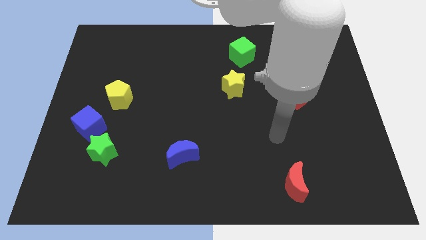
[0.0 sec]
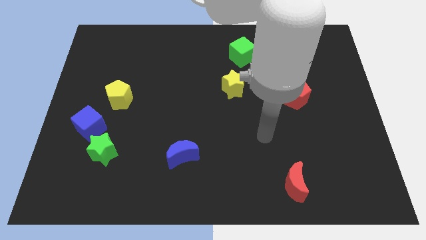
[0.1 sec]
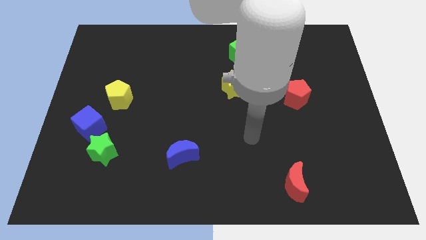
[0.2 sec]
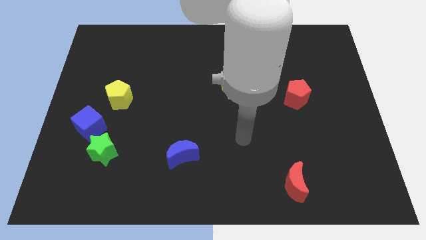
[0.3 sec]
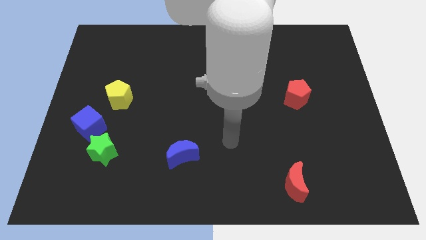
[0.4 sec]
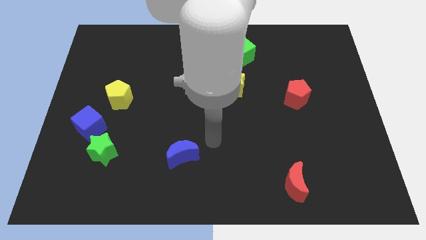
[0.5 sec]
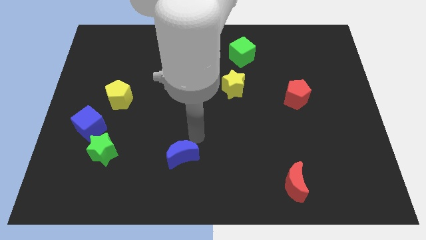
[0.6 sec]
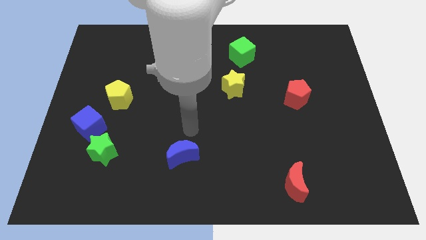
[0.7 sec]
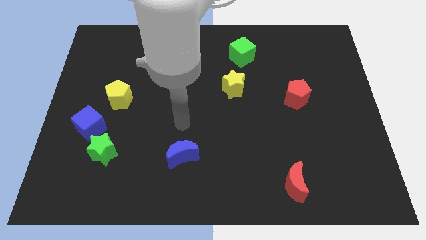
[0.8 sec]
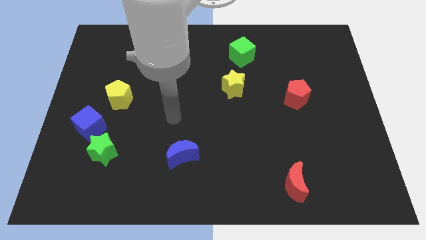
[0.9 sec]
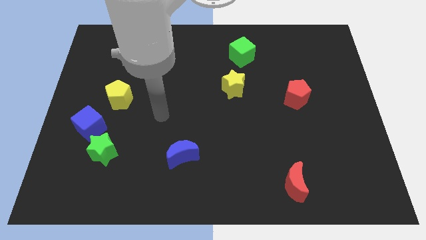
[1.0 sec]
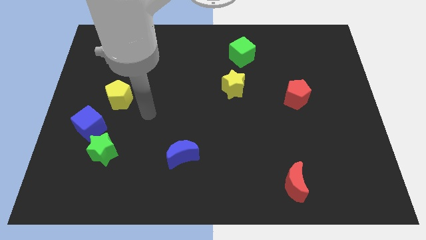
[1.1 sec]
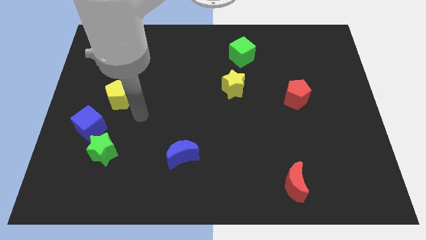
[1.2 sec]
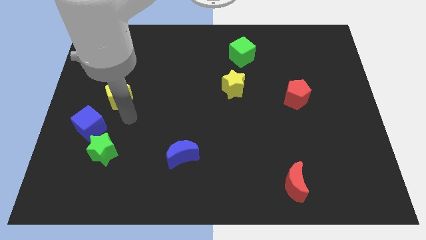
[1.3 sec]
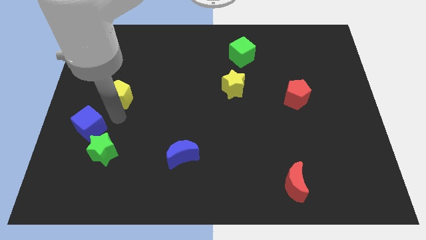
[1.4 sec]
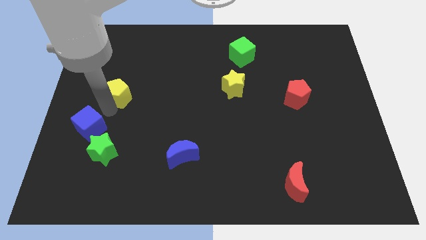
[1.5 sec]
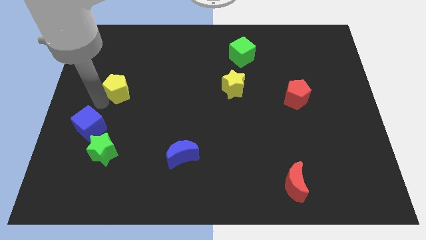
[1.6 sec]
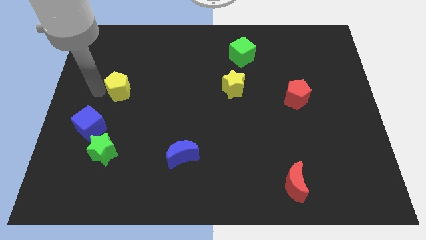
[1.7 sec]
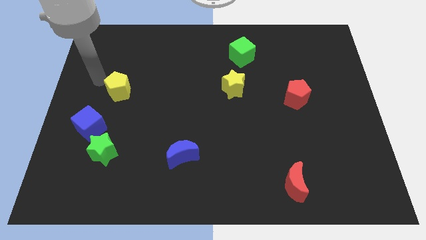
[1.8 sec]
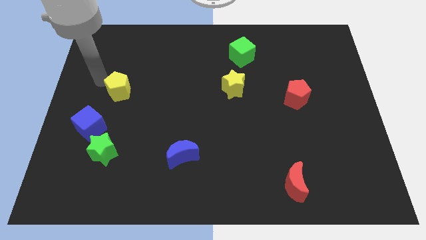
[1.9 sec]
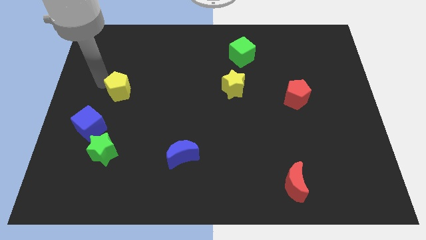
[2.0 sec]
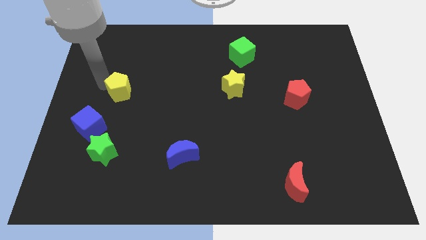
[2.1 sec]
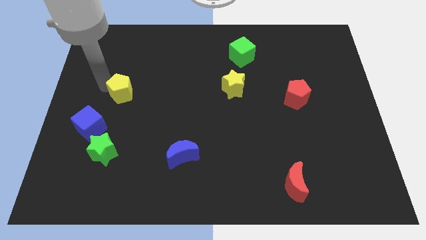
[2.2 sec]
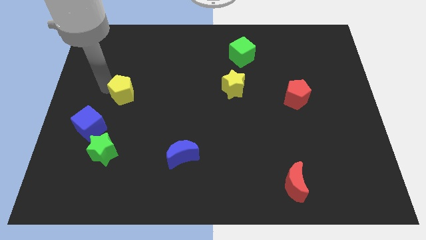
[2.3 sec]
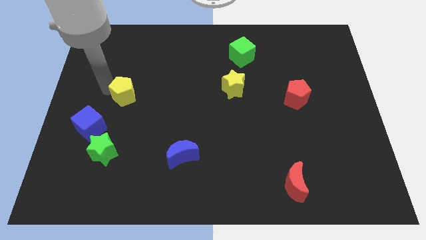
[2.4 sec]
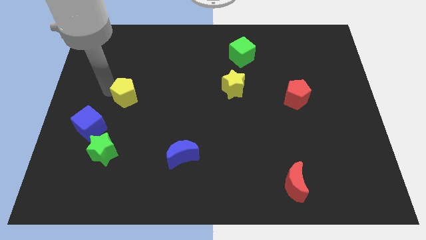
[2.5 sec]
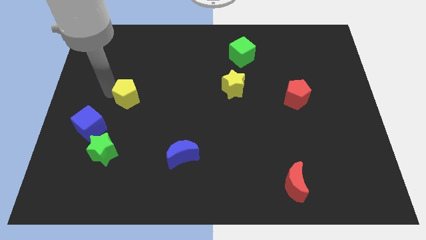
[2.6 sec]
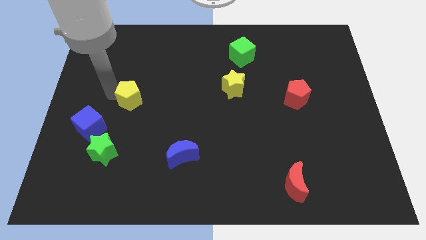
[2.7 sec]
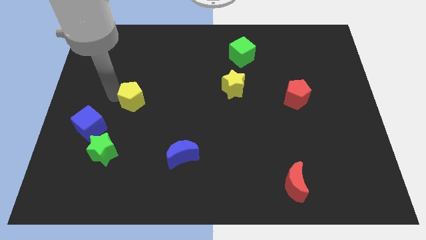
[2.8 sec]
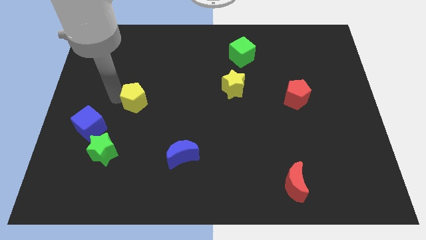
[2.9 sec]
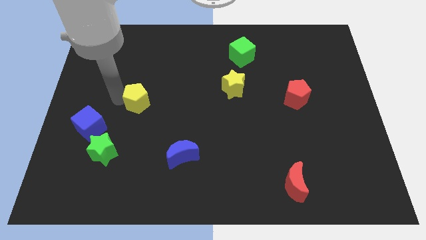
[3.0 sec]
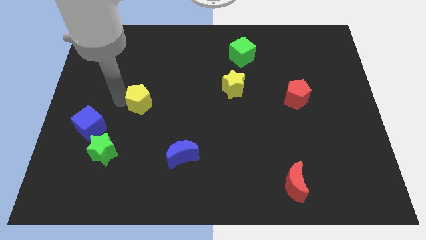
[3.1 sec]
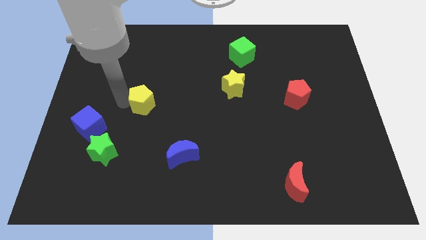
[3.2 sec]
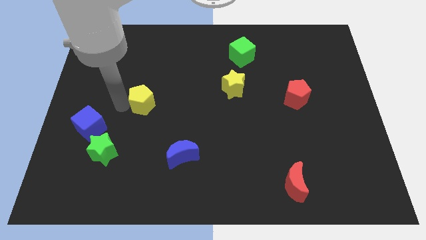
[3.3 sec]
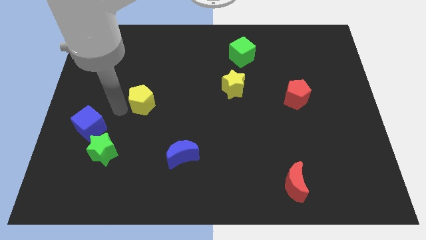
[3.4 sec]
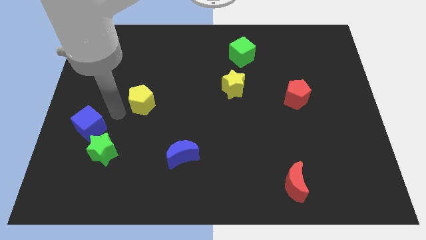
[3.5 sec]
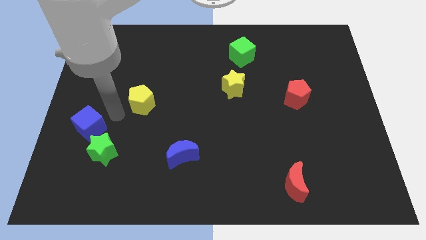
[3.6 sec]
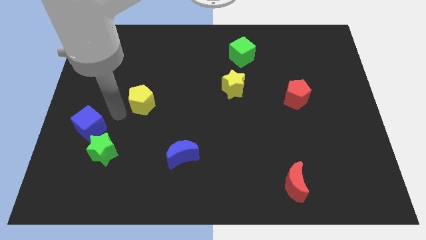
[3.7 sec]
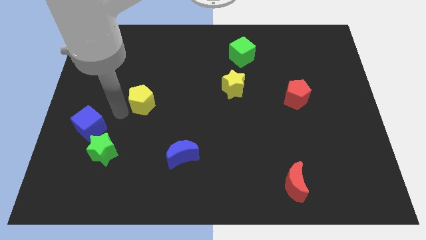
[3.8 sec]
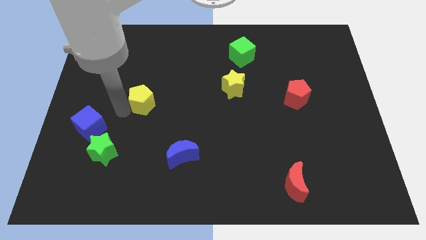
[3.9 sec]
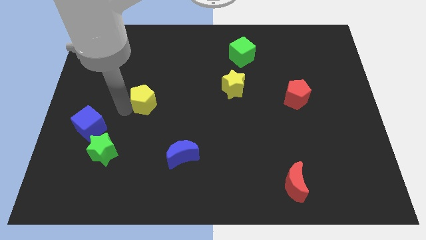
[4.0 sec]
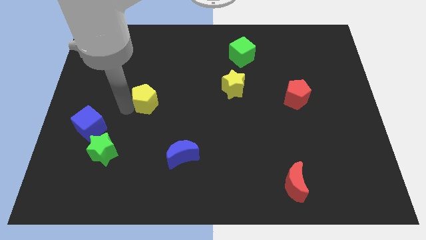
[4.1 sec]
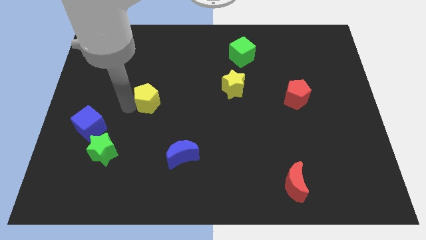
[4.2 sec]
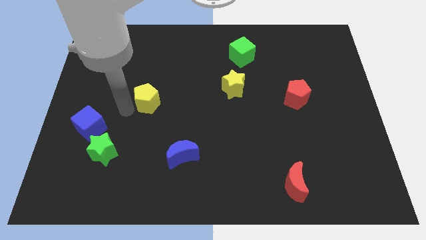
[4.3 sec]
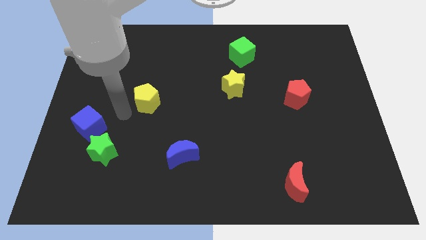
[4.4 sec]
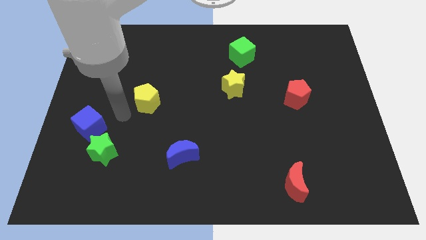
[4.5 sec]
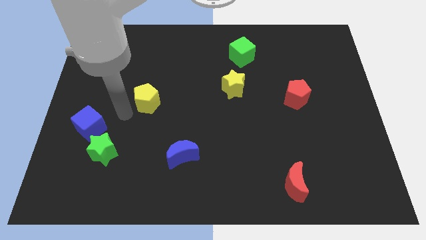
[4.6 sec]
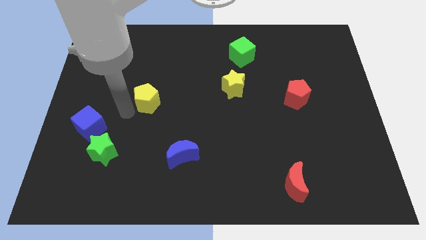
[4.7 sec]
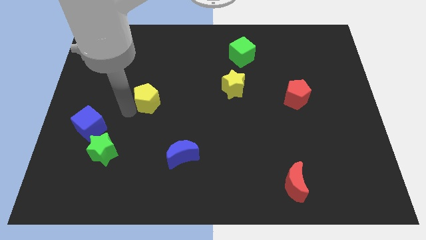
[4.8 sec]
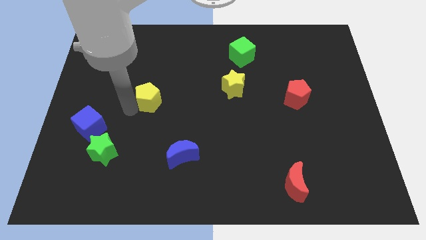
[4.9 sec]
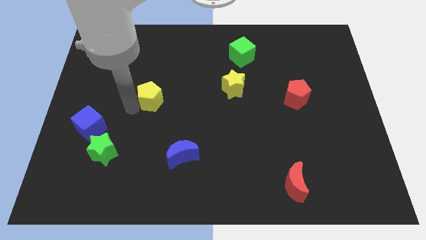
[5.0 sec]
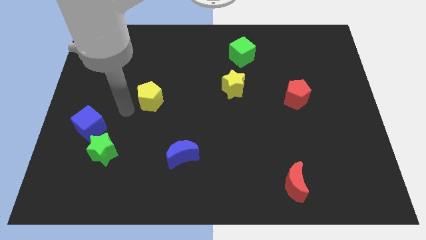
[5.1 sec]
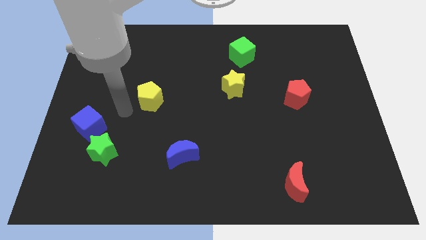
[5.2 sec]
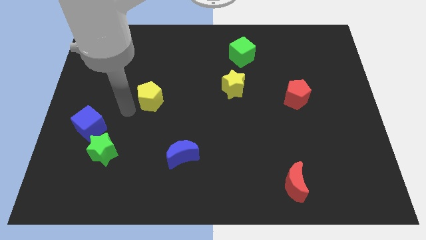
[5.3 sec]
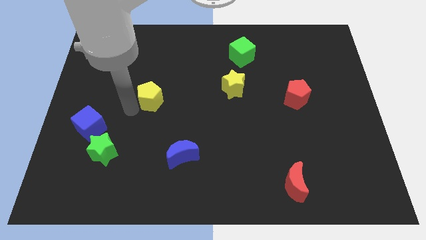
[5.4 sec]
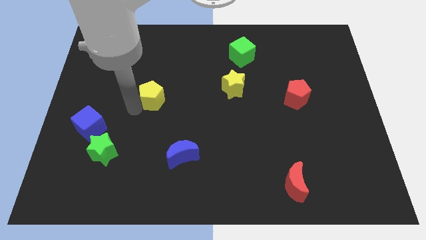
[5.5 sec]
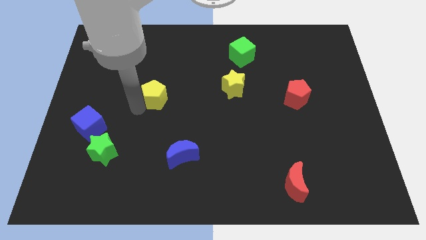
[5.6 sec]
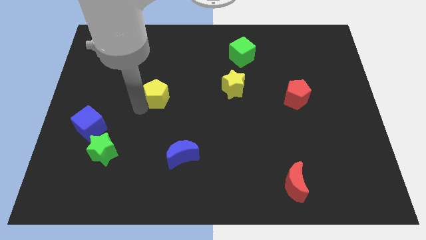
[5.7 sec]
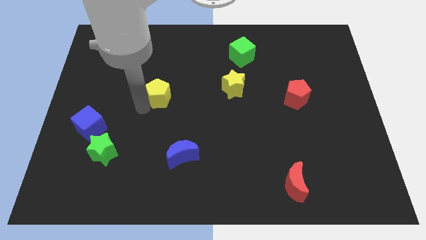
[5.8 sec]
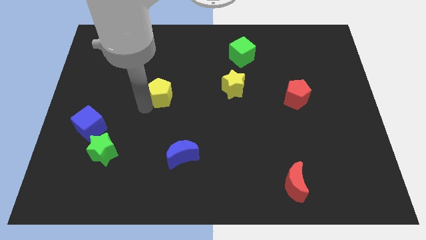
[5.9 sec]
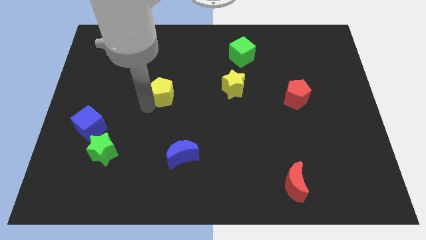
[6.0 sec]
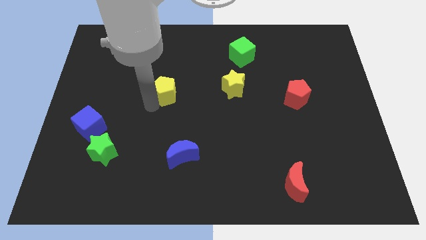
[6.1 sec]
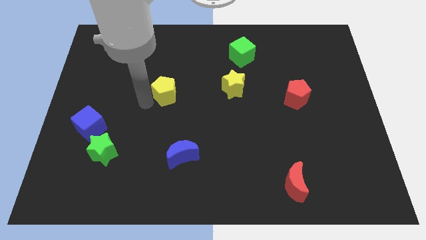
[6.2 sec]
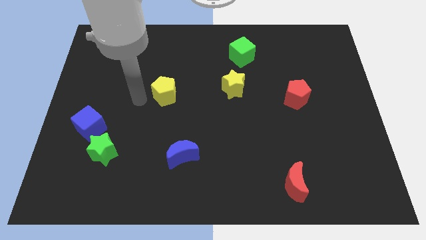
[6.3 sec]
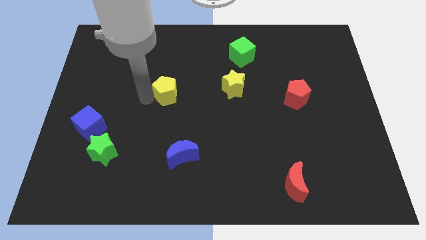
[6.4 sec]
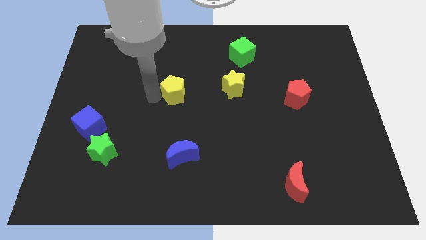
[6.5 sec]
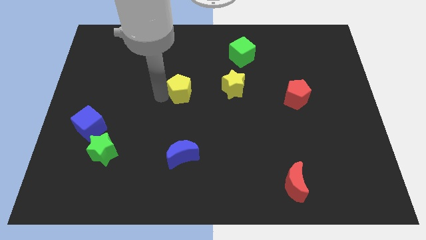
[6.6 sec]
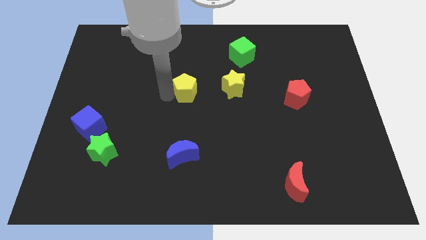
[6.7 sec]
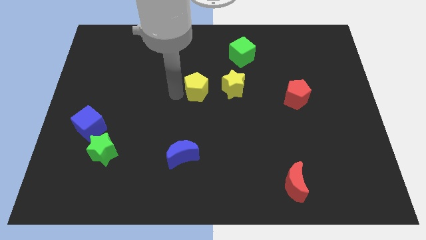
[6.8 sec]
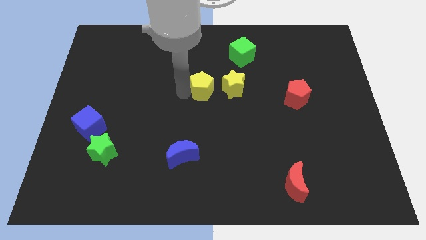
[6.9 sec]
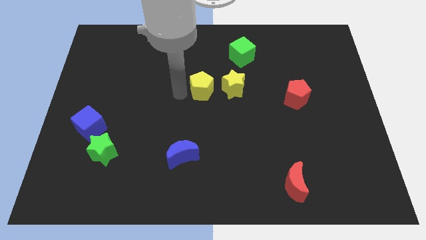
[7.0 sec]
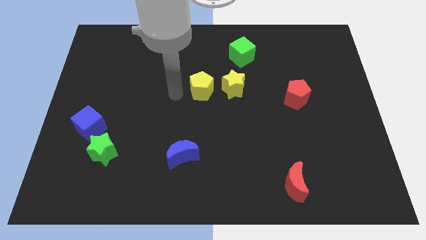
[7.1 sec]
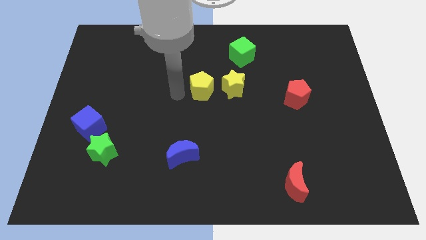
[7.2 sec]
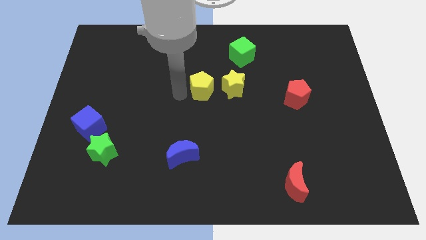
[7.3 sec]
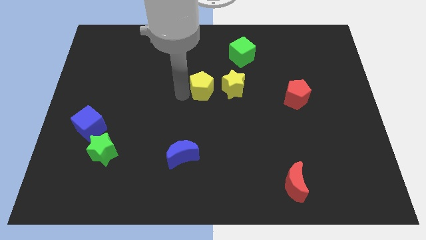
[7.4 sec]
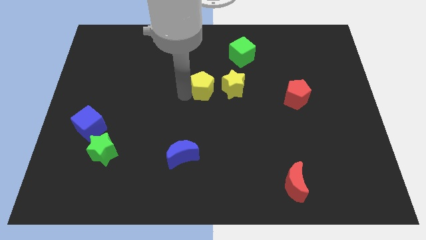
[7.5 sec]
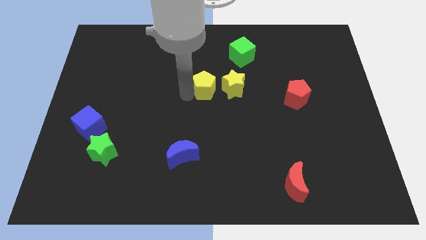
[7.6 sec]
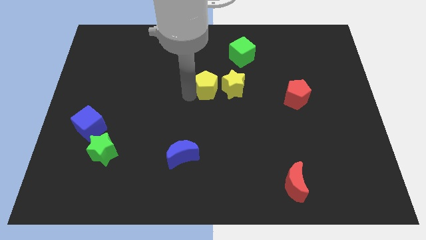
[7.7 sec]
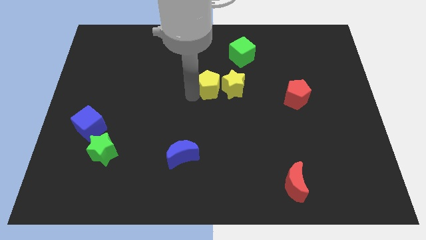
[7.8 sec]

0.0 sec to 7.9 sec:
slide the yellow pentagon next to the yellow star
